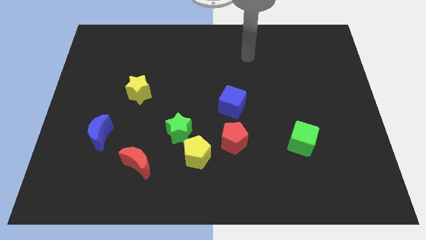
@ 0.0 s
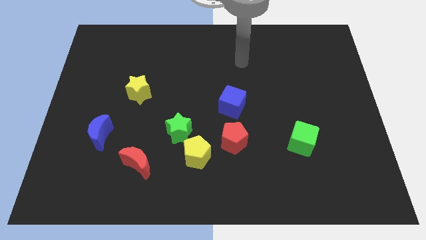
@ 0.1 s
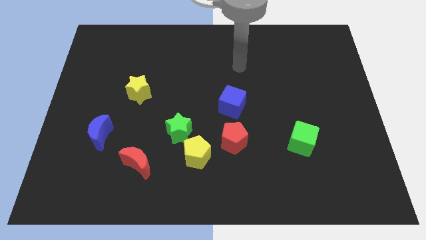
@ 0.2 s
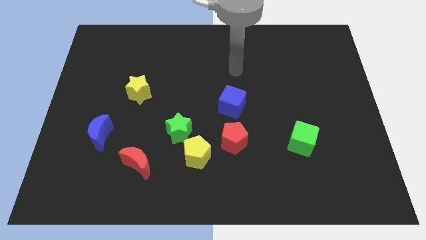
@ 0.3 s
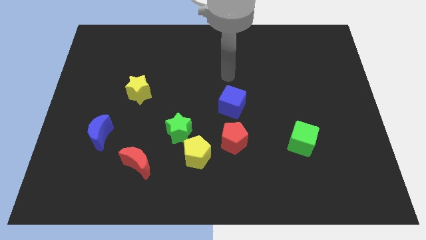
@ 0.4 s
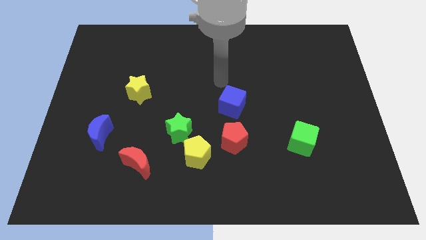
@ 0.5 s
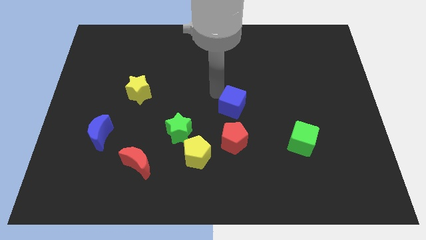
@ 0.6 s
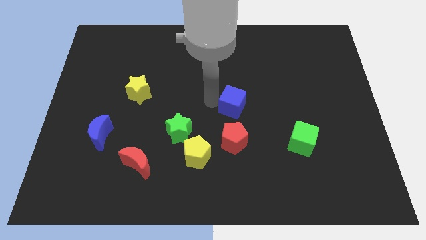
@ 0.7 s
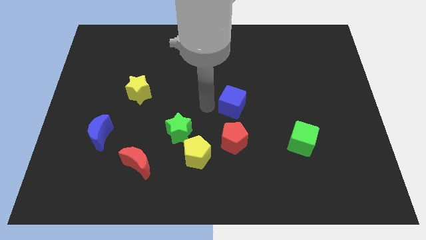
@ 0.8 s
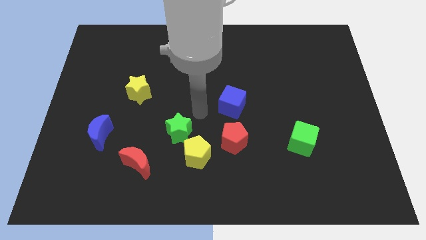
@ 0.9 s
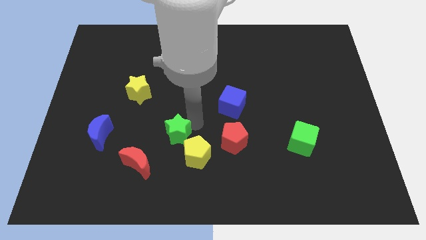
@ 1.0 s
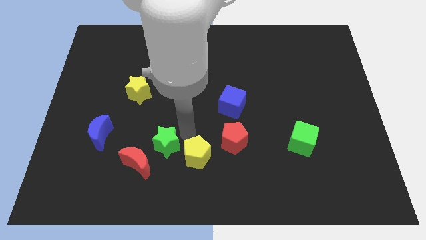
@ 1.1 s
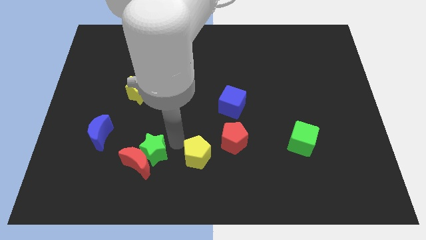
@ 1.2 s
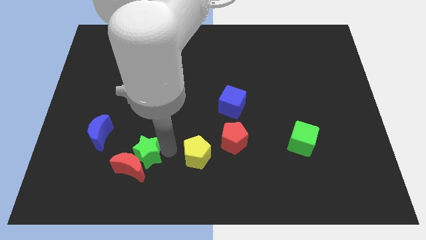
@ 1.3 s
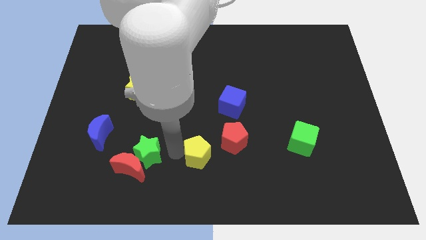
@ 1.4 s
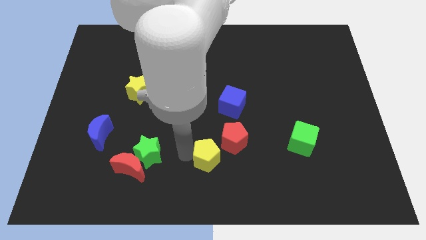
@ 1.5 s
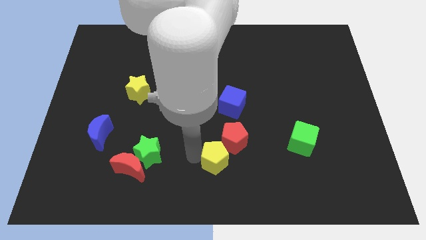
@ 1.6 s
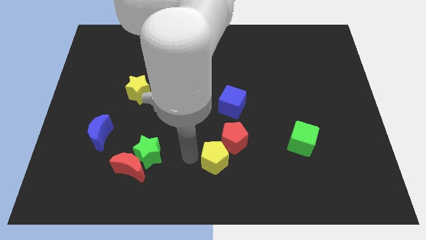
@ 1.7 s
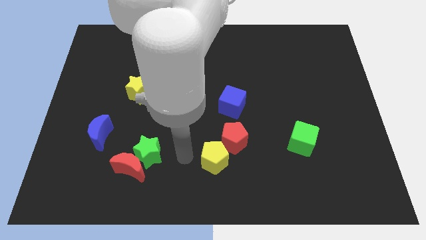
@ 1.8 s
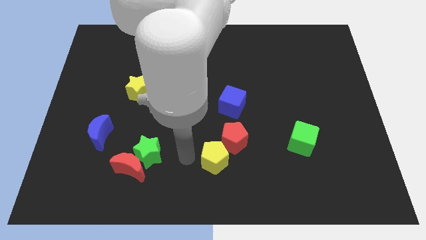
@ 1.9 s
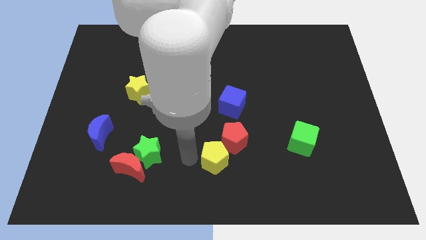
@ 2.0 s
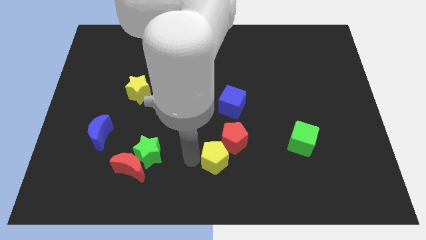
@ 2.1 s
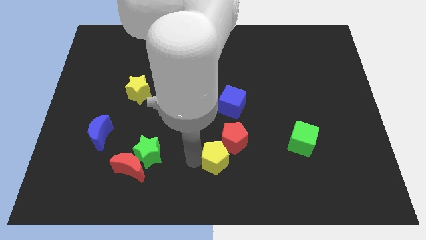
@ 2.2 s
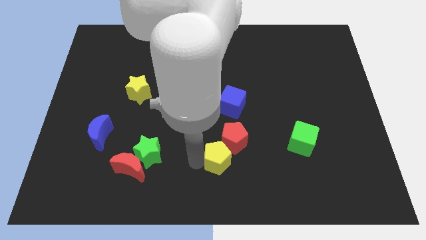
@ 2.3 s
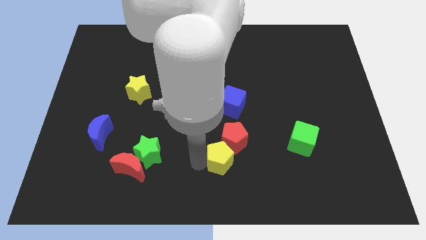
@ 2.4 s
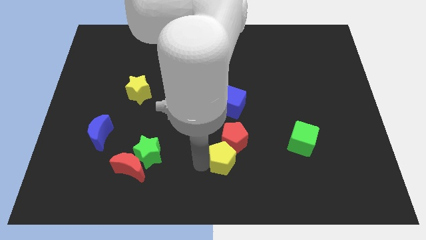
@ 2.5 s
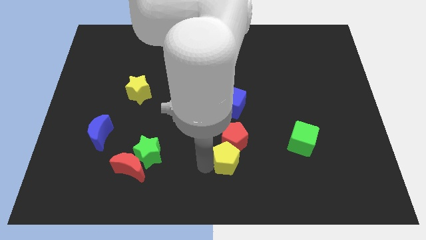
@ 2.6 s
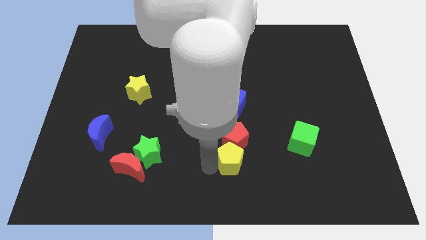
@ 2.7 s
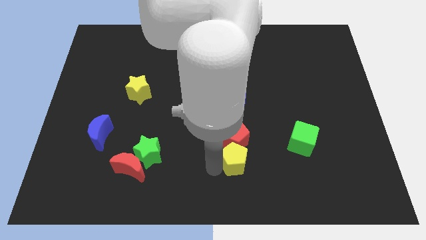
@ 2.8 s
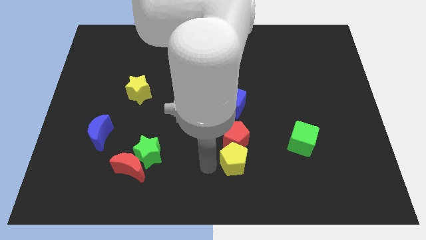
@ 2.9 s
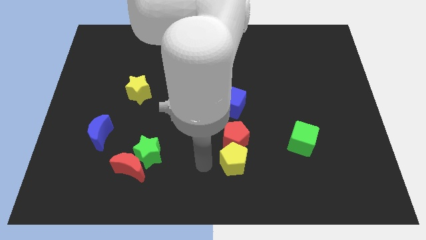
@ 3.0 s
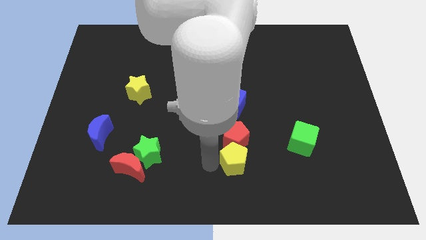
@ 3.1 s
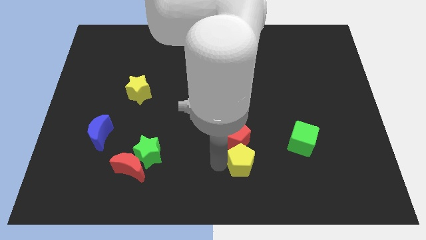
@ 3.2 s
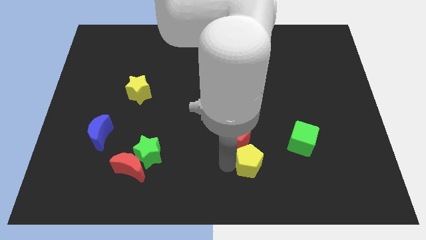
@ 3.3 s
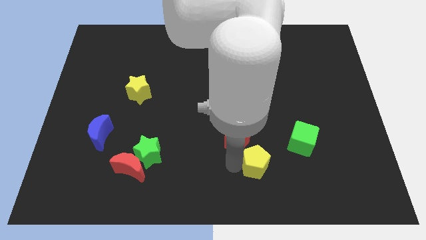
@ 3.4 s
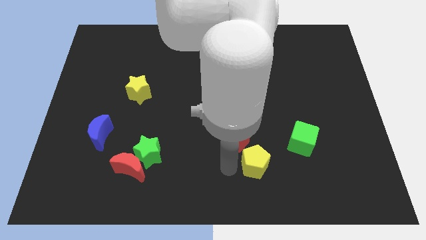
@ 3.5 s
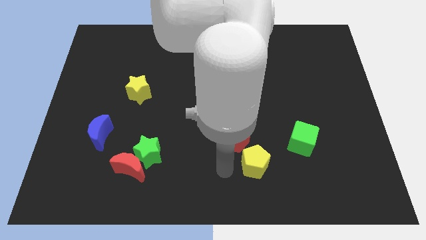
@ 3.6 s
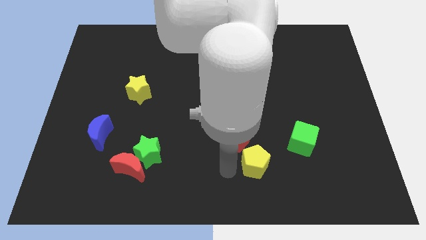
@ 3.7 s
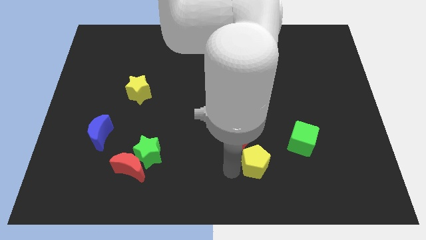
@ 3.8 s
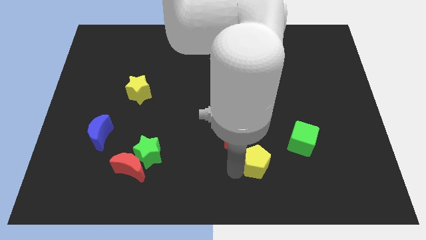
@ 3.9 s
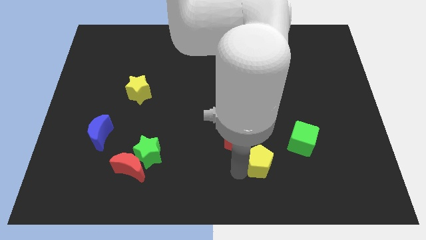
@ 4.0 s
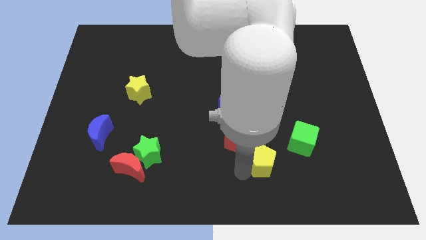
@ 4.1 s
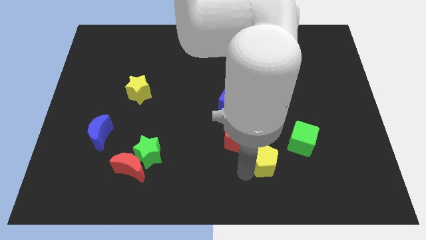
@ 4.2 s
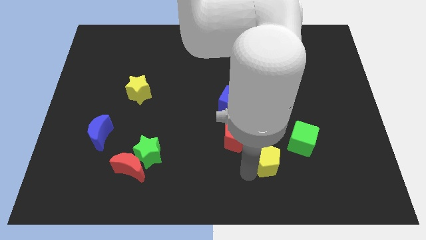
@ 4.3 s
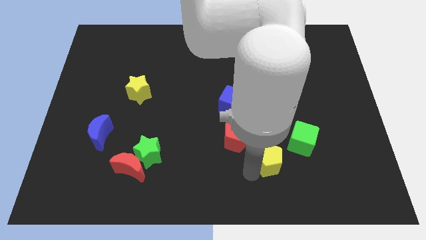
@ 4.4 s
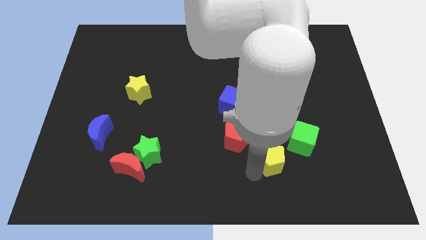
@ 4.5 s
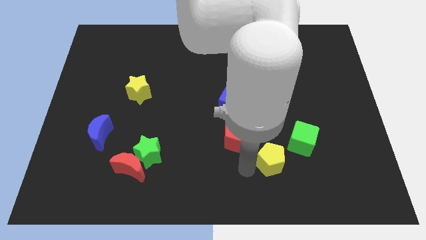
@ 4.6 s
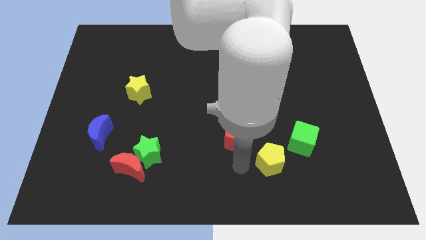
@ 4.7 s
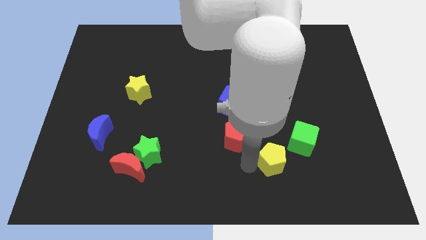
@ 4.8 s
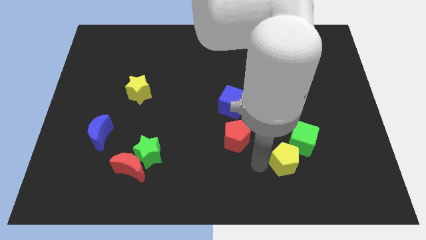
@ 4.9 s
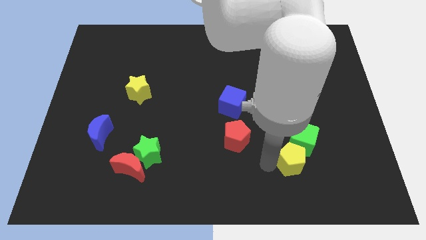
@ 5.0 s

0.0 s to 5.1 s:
move the yellow pentagon to the right

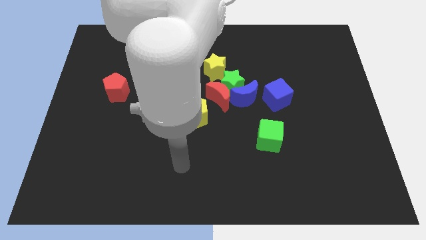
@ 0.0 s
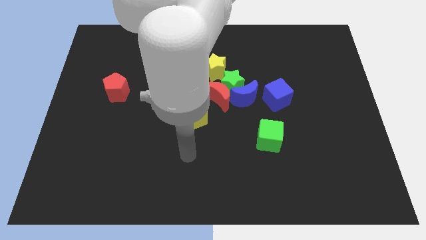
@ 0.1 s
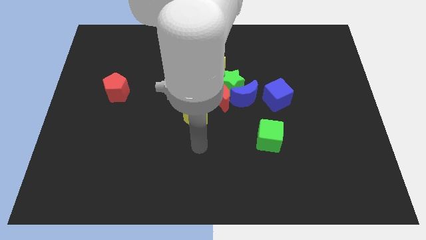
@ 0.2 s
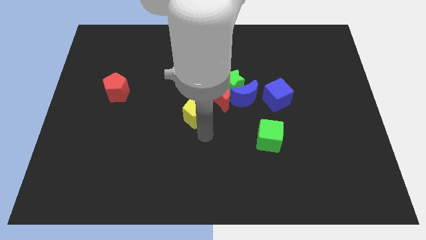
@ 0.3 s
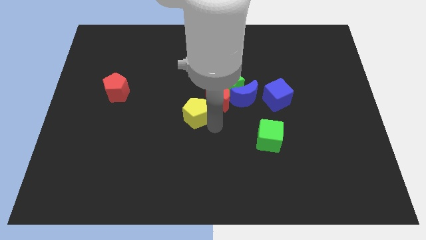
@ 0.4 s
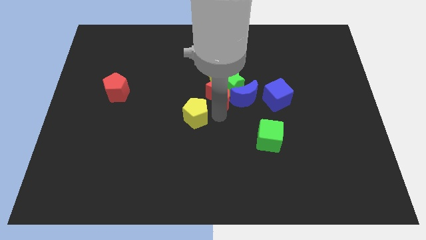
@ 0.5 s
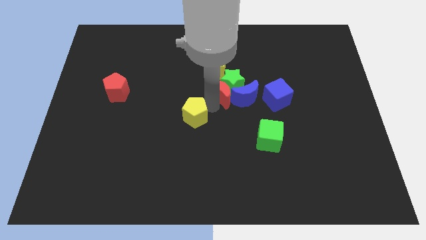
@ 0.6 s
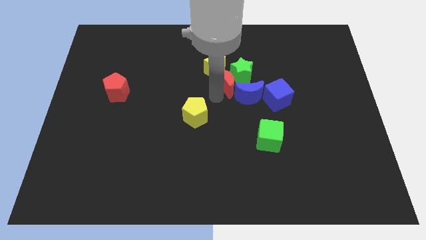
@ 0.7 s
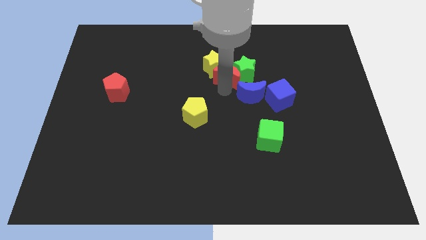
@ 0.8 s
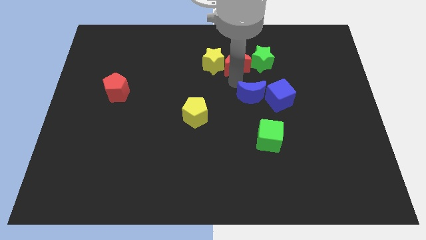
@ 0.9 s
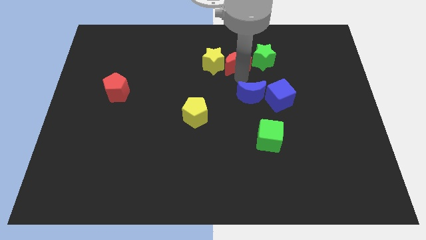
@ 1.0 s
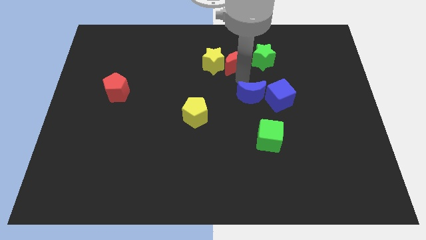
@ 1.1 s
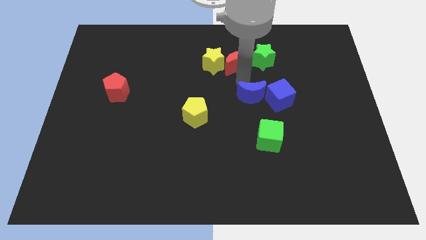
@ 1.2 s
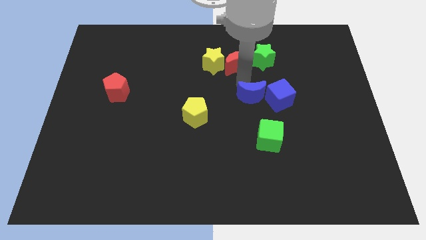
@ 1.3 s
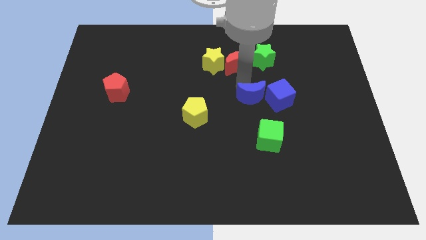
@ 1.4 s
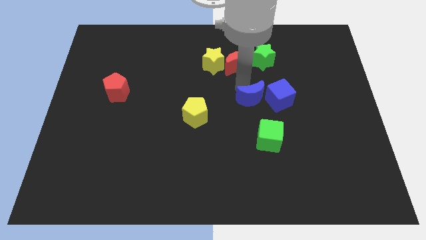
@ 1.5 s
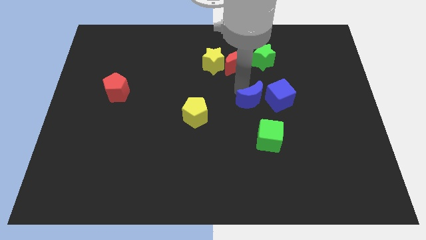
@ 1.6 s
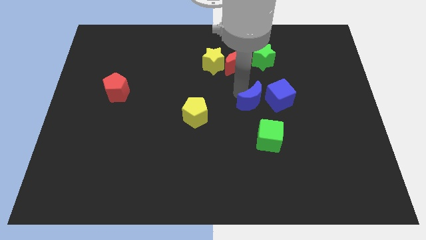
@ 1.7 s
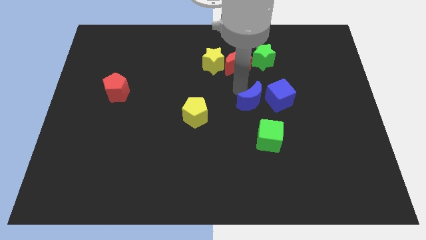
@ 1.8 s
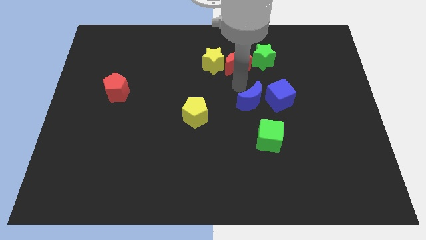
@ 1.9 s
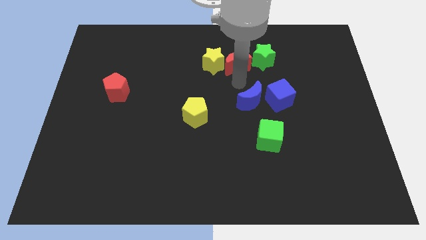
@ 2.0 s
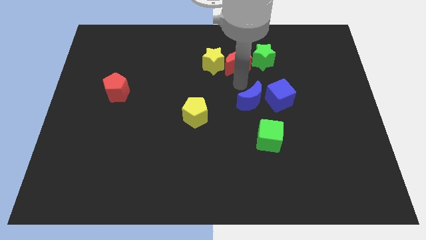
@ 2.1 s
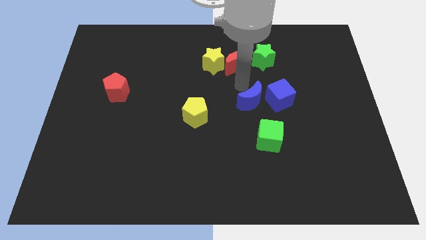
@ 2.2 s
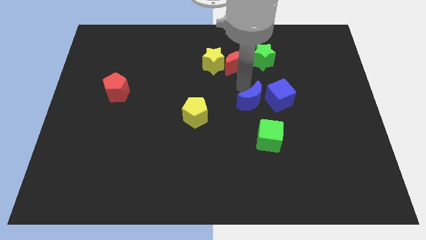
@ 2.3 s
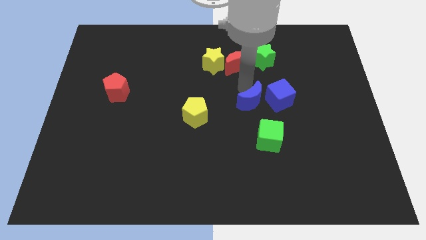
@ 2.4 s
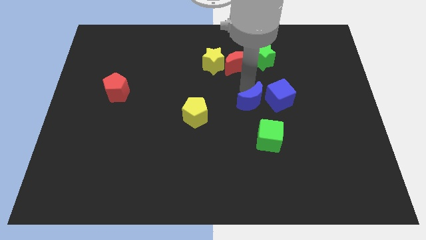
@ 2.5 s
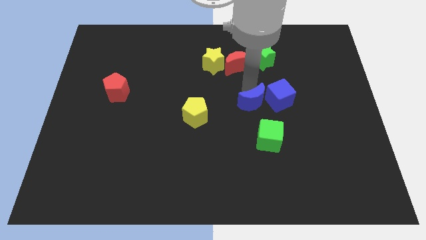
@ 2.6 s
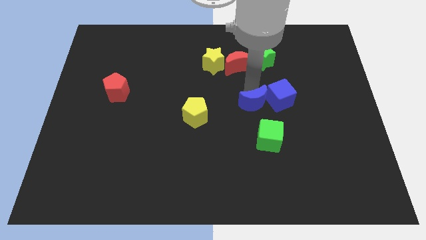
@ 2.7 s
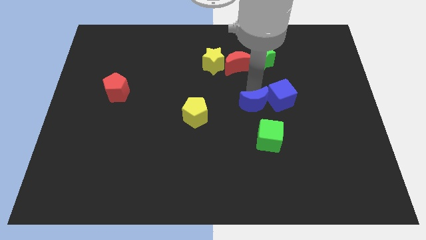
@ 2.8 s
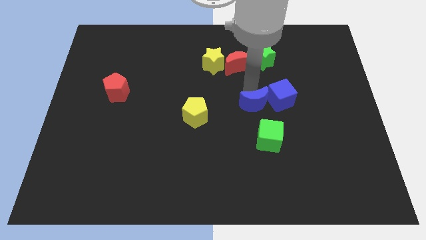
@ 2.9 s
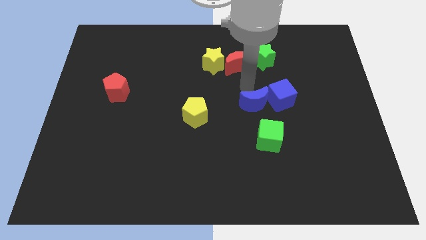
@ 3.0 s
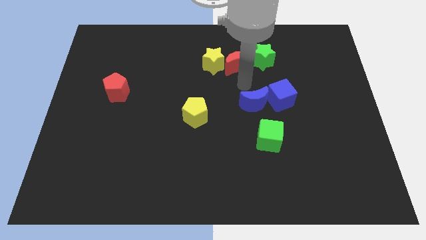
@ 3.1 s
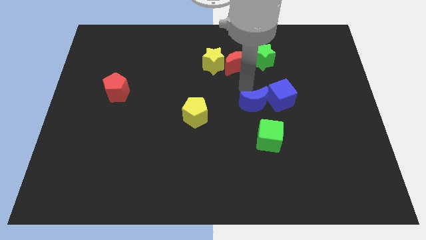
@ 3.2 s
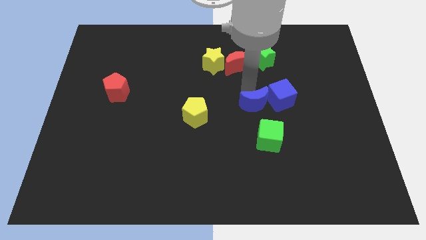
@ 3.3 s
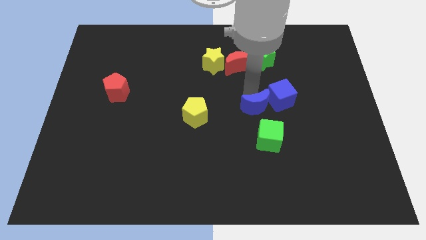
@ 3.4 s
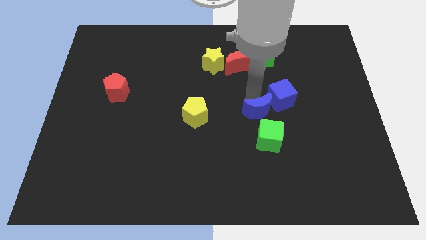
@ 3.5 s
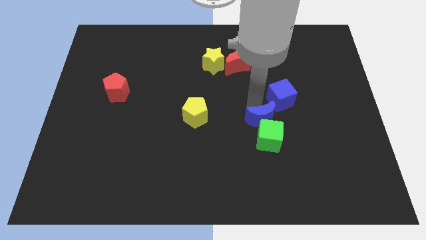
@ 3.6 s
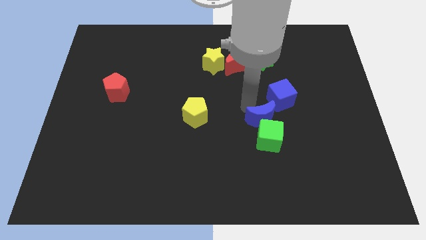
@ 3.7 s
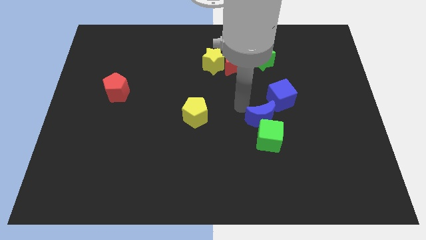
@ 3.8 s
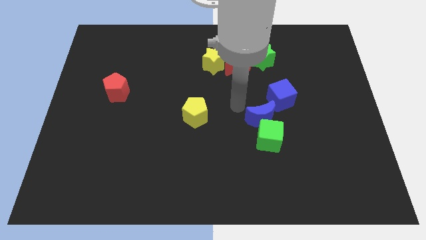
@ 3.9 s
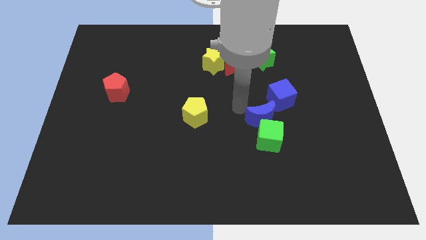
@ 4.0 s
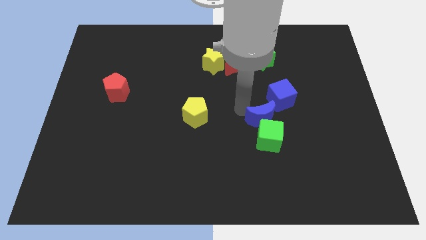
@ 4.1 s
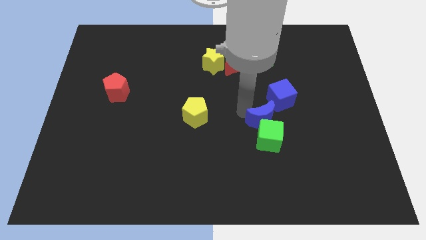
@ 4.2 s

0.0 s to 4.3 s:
slightly push the blue moon downwards and then right
